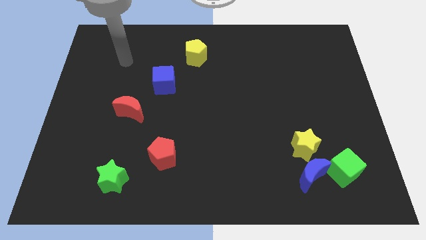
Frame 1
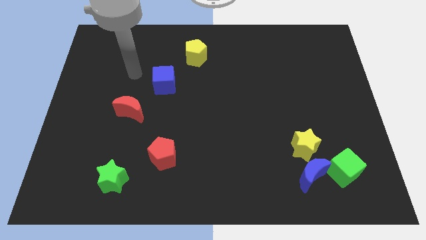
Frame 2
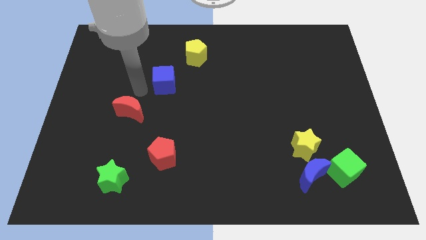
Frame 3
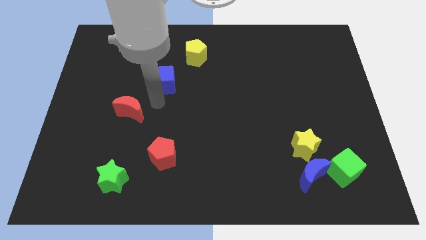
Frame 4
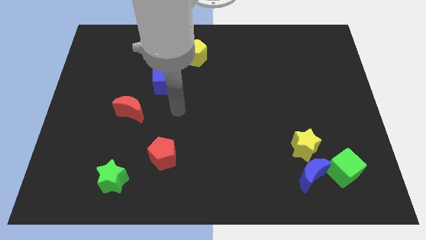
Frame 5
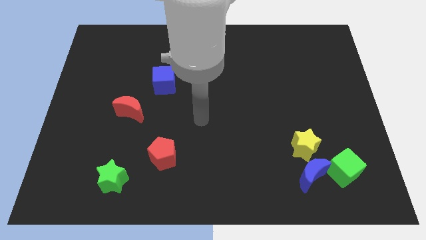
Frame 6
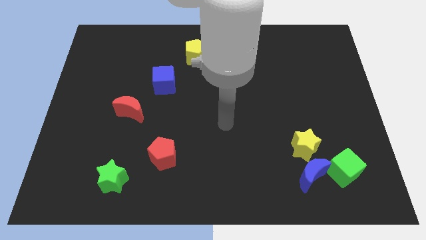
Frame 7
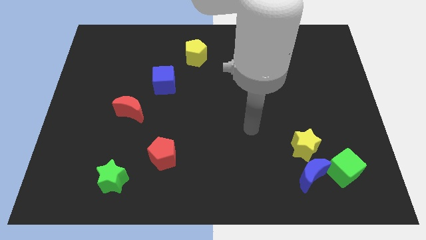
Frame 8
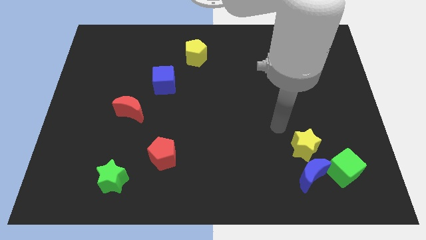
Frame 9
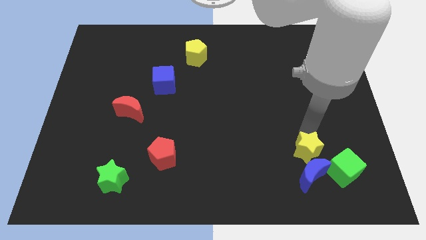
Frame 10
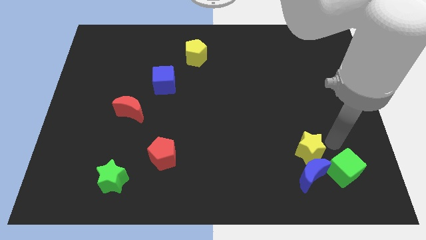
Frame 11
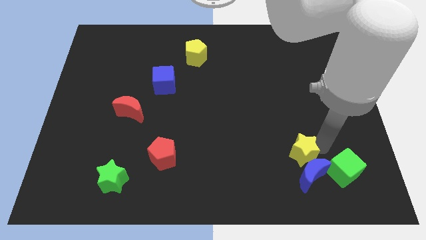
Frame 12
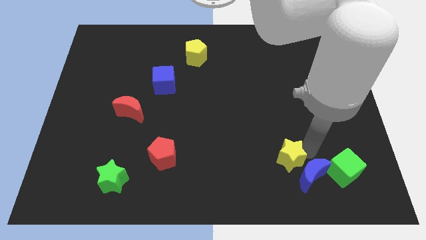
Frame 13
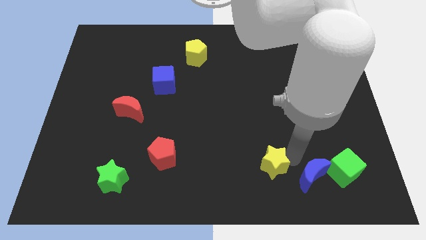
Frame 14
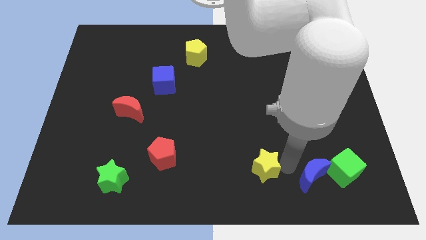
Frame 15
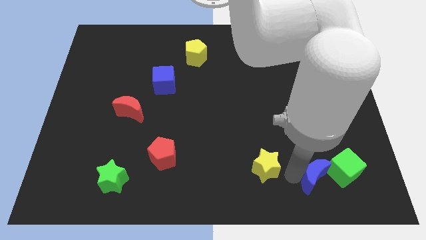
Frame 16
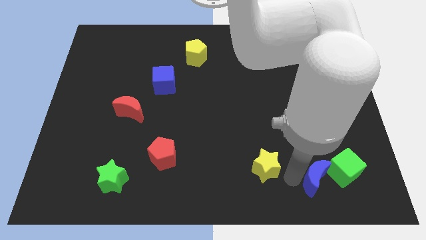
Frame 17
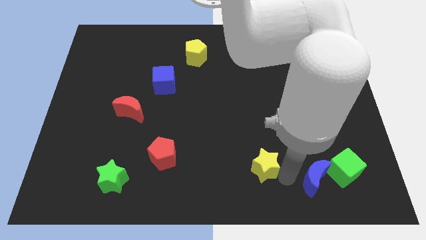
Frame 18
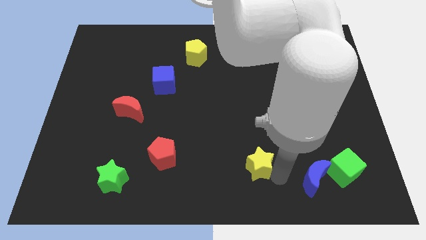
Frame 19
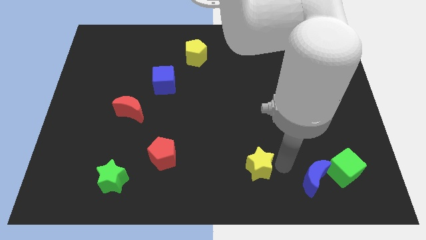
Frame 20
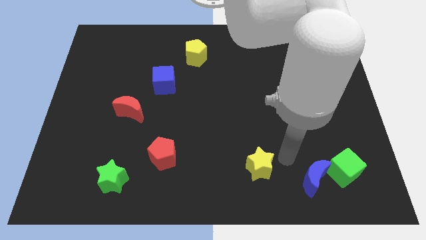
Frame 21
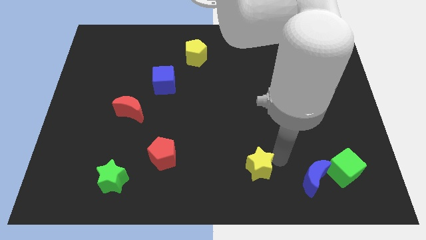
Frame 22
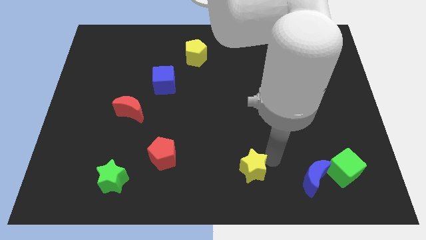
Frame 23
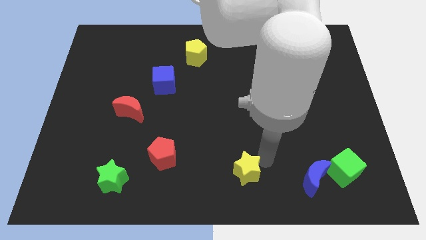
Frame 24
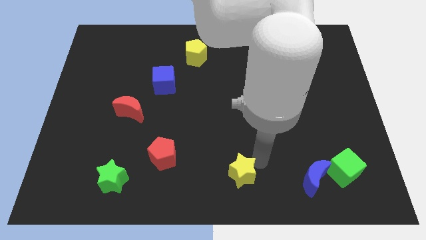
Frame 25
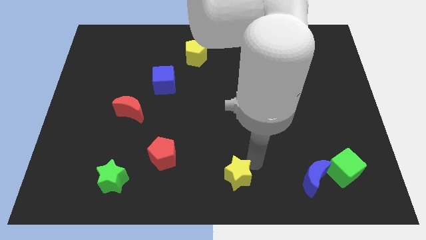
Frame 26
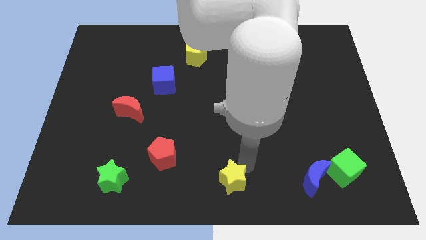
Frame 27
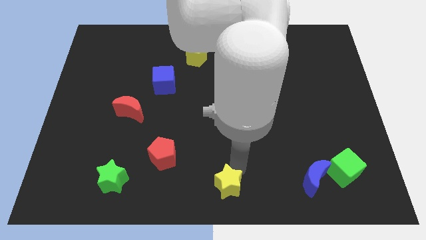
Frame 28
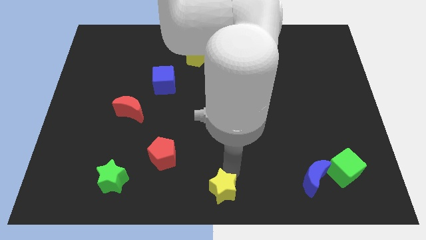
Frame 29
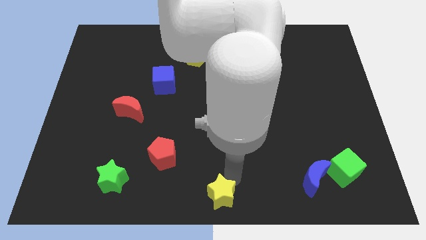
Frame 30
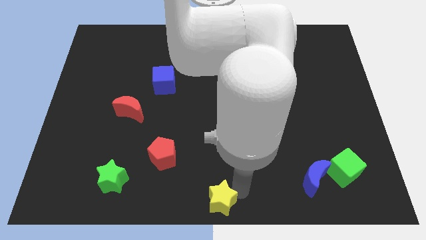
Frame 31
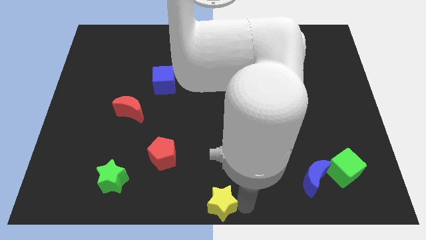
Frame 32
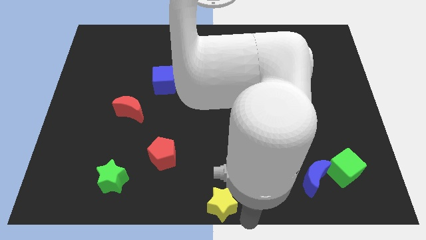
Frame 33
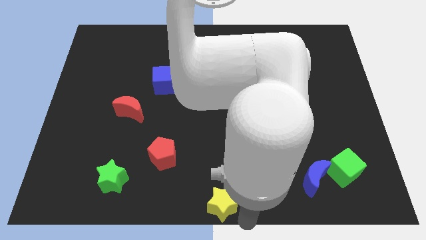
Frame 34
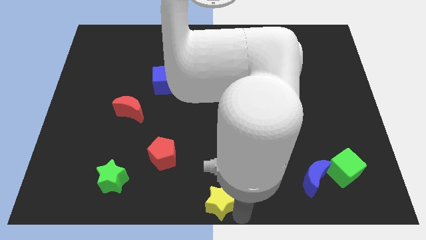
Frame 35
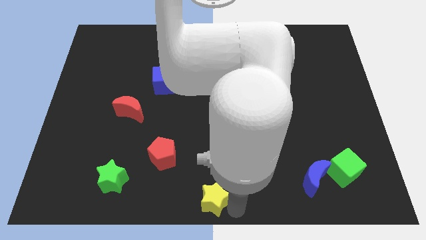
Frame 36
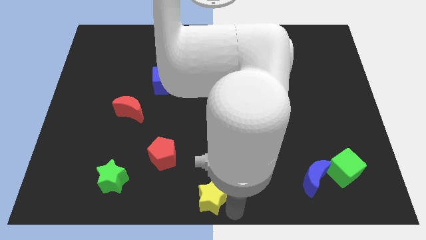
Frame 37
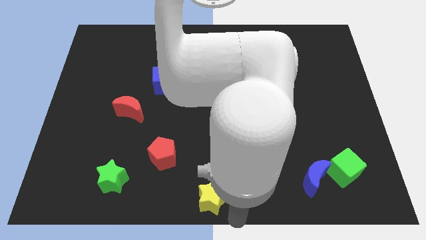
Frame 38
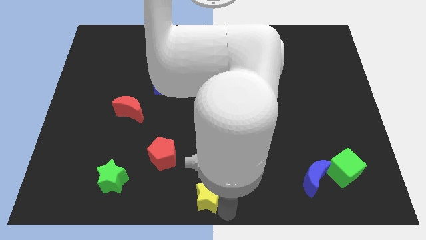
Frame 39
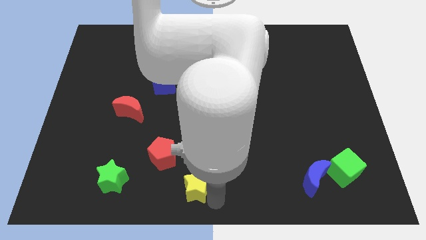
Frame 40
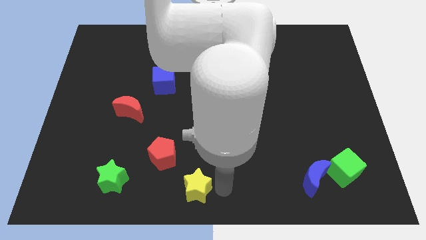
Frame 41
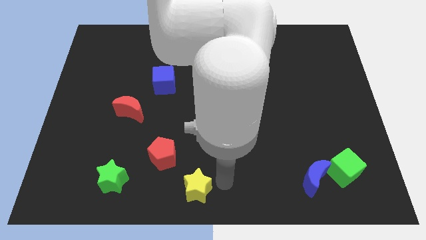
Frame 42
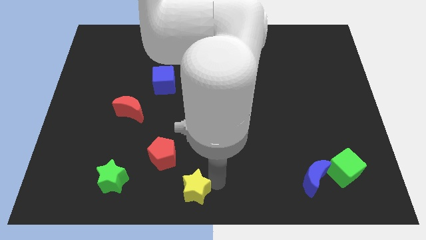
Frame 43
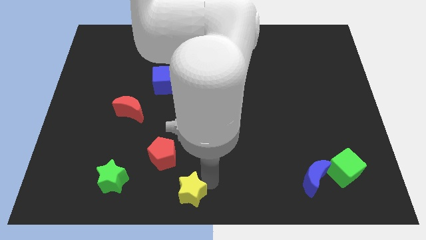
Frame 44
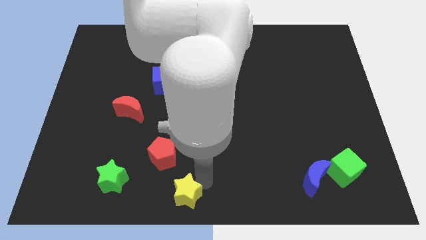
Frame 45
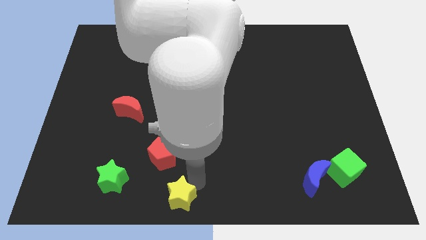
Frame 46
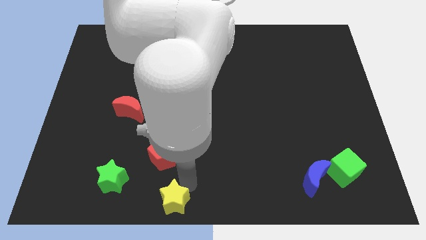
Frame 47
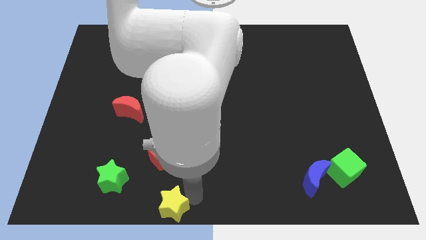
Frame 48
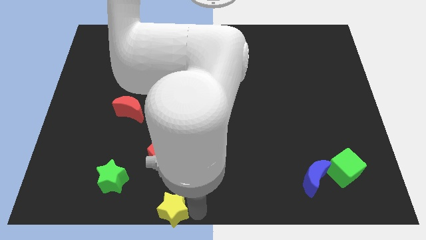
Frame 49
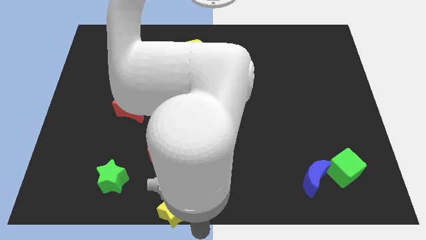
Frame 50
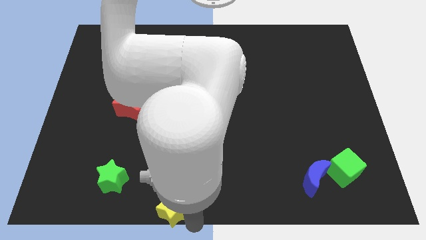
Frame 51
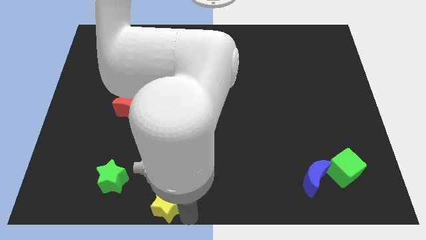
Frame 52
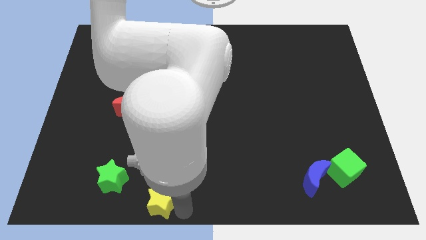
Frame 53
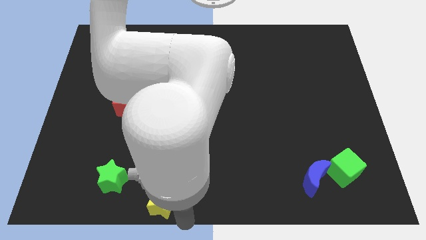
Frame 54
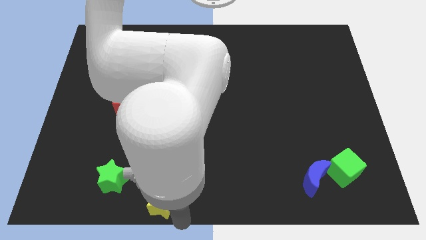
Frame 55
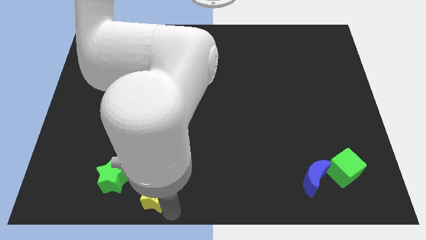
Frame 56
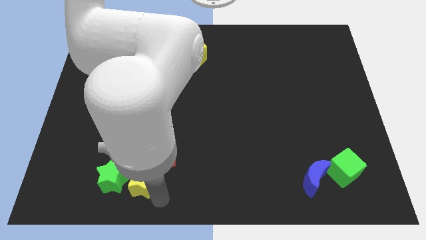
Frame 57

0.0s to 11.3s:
push the yellow star close to the green star

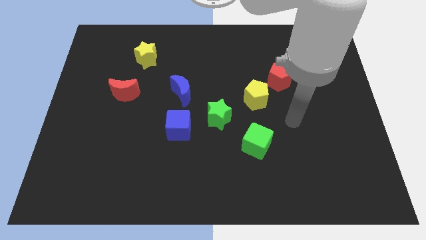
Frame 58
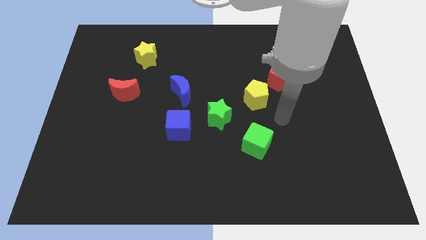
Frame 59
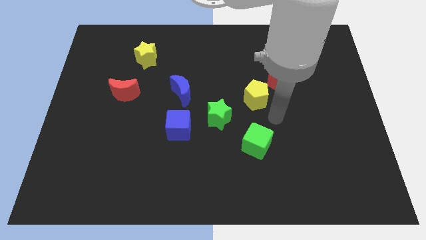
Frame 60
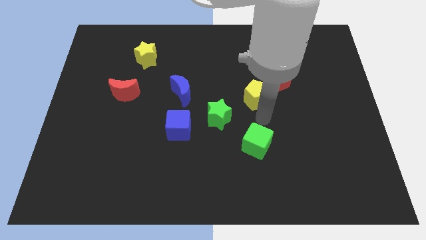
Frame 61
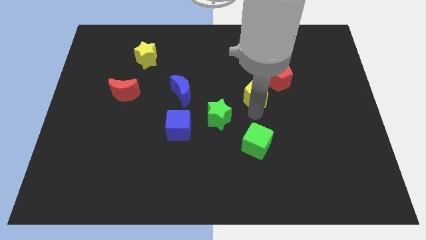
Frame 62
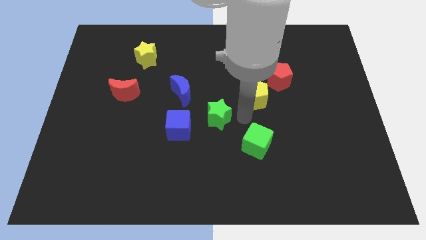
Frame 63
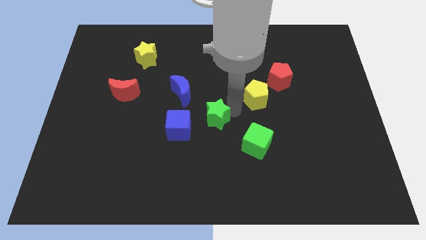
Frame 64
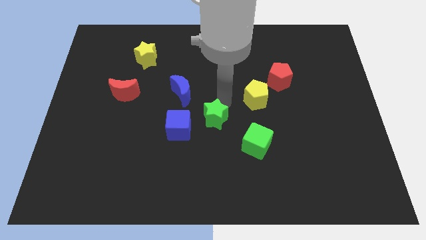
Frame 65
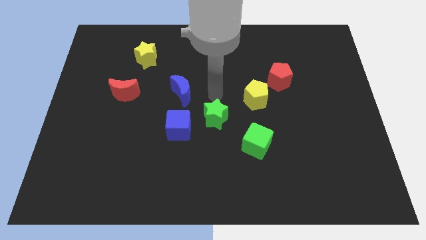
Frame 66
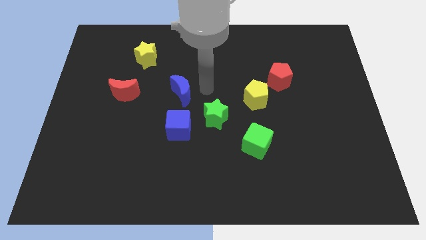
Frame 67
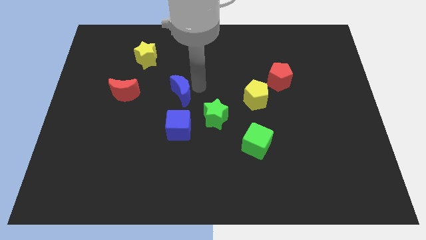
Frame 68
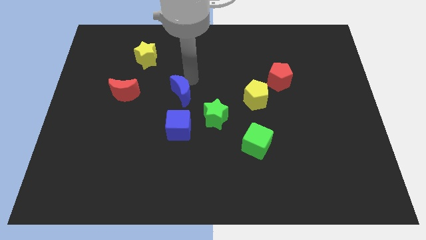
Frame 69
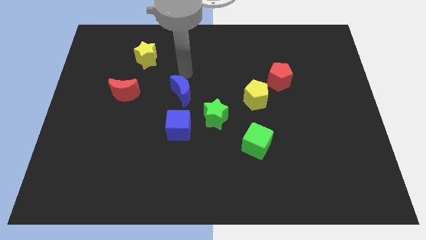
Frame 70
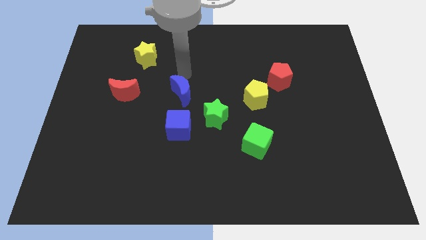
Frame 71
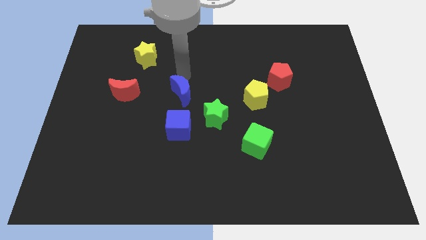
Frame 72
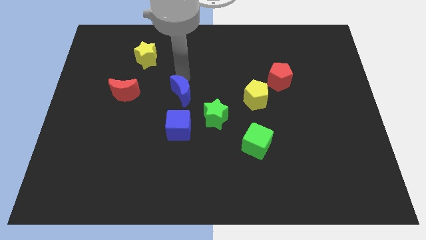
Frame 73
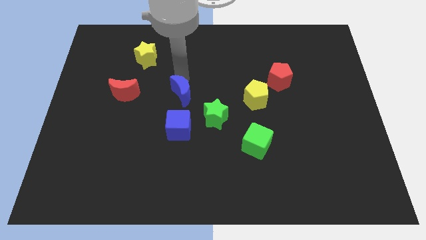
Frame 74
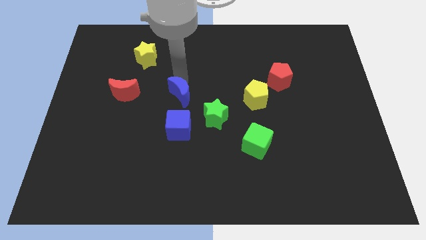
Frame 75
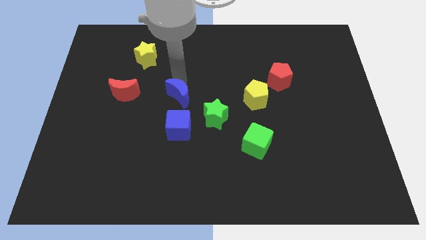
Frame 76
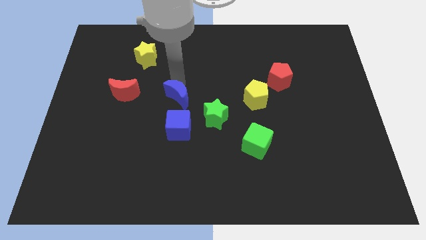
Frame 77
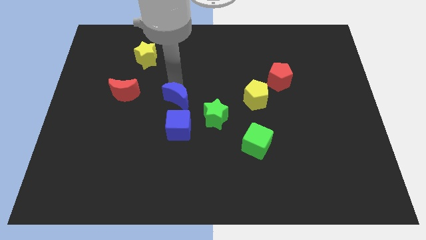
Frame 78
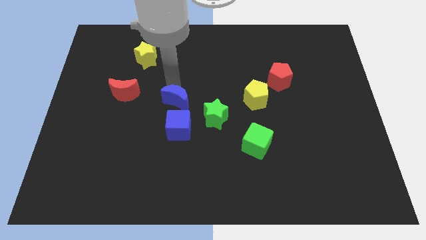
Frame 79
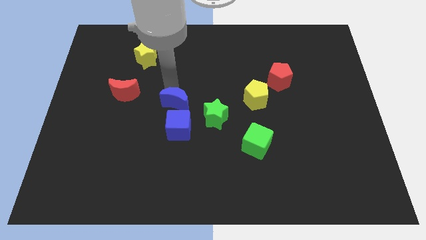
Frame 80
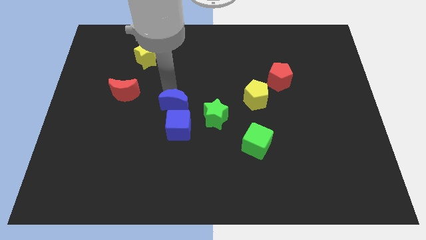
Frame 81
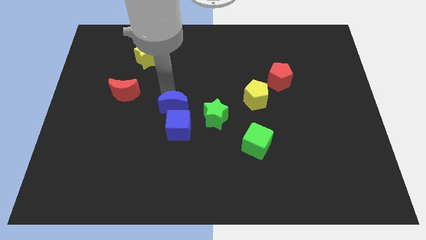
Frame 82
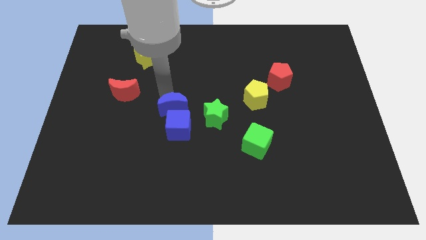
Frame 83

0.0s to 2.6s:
put the blue moon towards the blue cube
